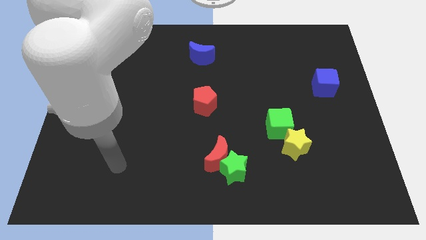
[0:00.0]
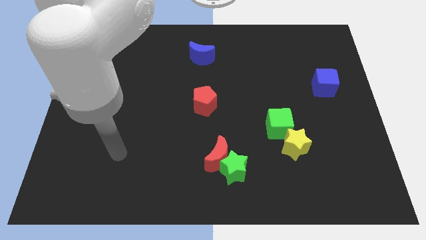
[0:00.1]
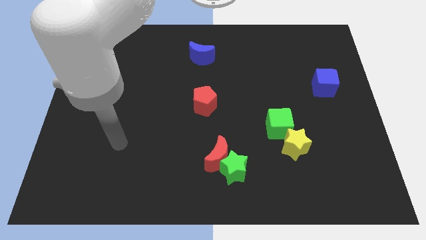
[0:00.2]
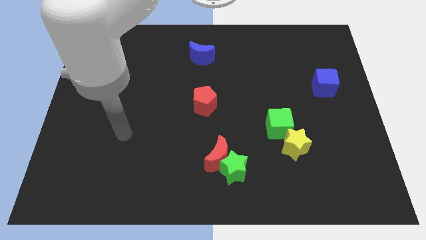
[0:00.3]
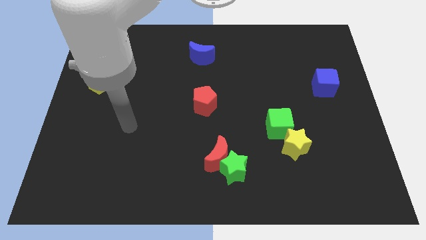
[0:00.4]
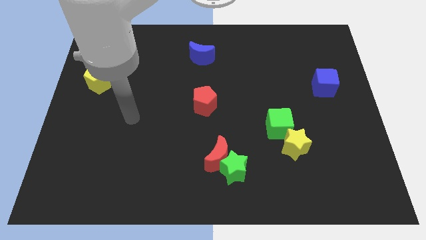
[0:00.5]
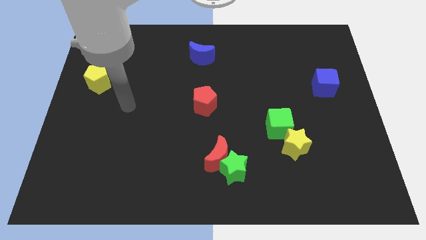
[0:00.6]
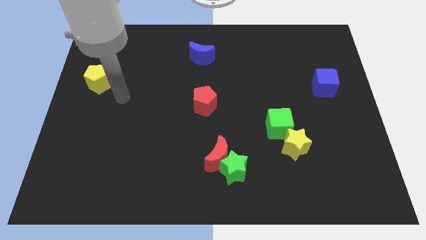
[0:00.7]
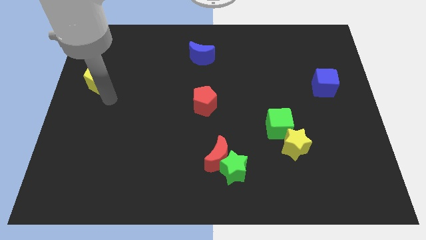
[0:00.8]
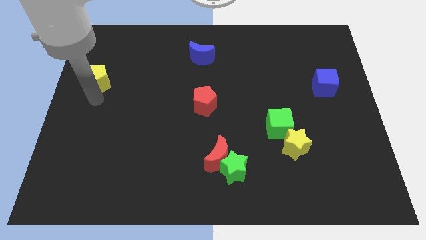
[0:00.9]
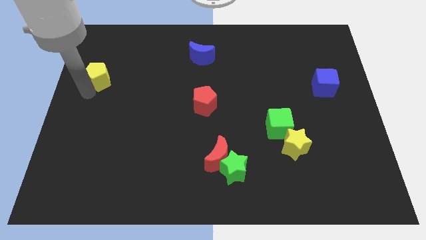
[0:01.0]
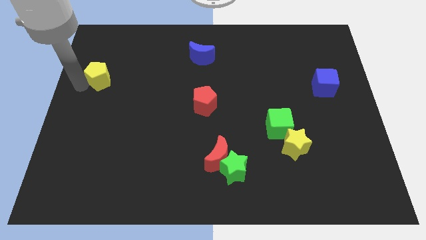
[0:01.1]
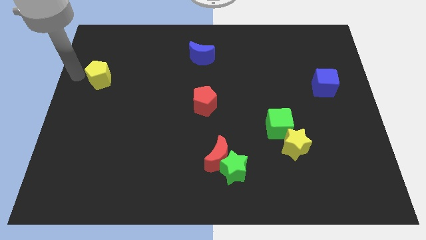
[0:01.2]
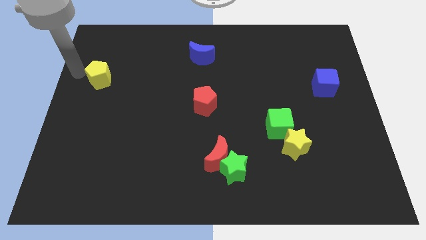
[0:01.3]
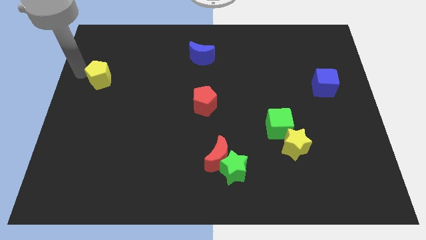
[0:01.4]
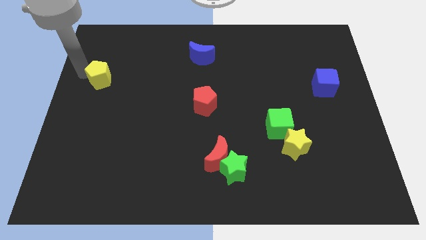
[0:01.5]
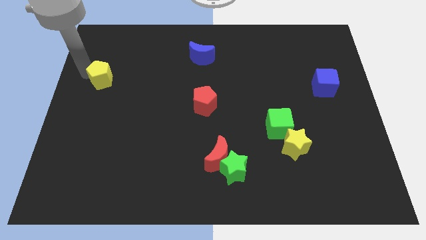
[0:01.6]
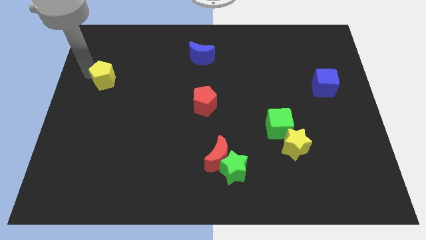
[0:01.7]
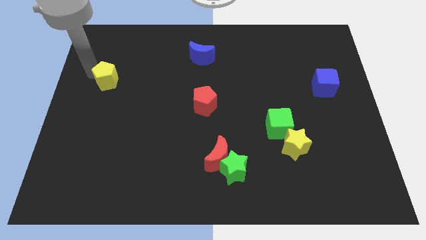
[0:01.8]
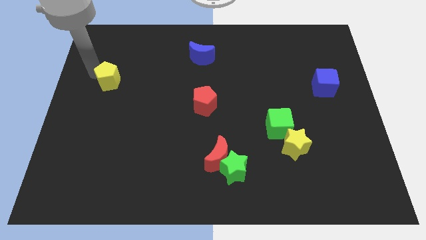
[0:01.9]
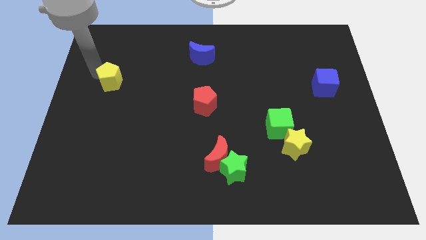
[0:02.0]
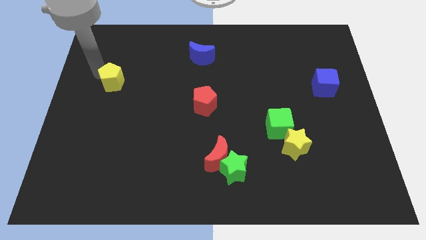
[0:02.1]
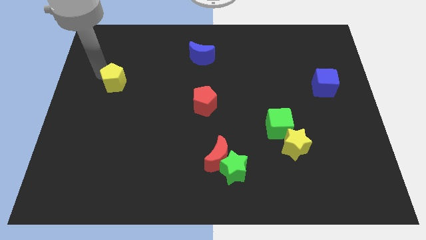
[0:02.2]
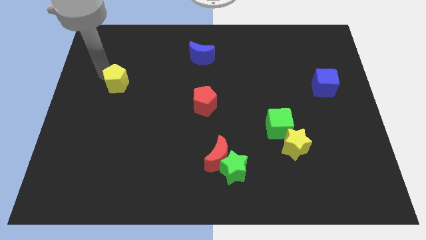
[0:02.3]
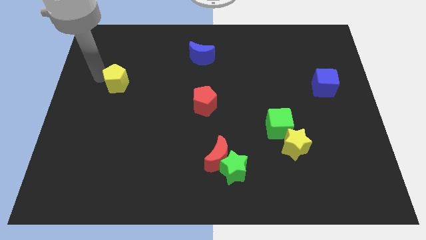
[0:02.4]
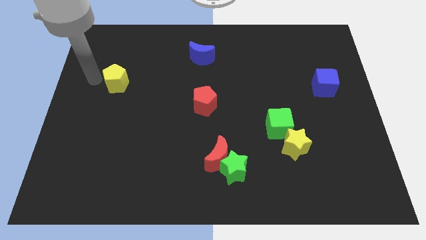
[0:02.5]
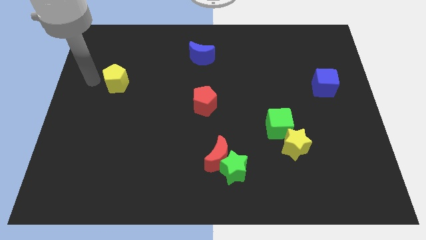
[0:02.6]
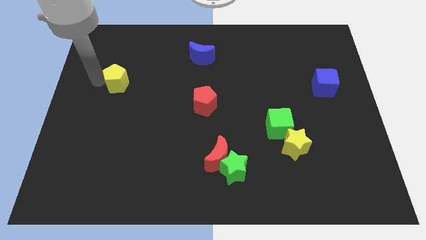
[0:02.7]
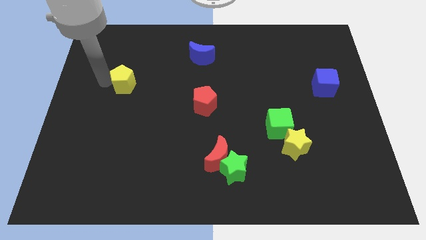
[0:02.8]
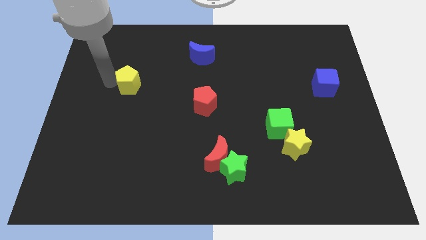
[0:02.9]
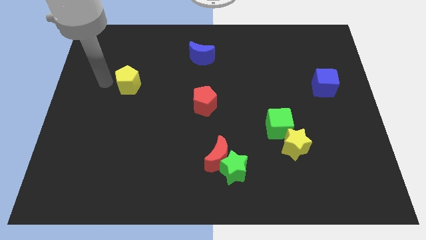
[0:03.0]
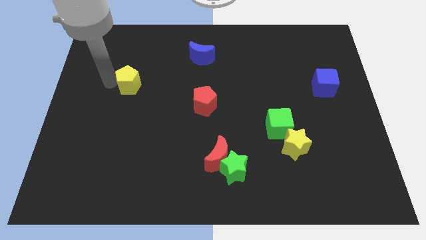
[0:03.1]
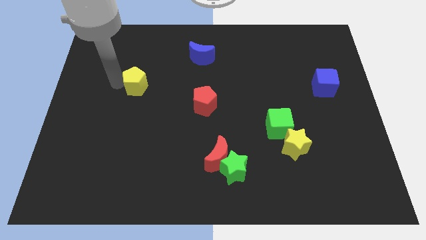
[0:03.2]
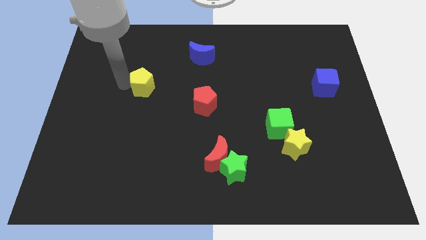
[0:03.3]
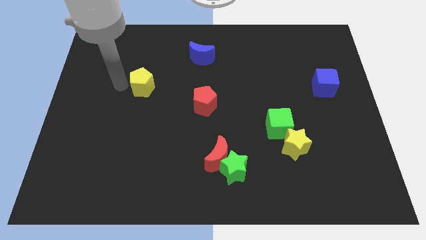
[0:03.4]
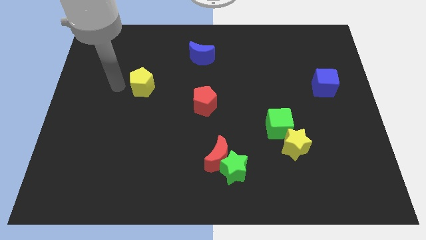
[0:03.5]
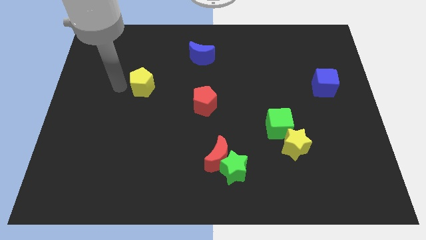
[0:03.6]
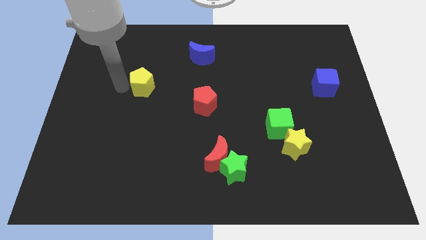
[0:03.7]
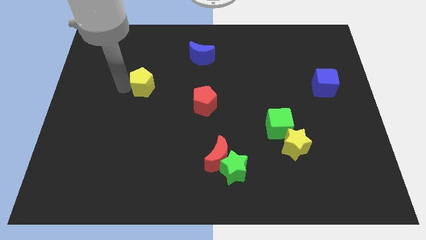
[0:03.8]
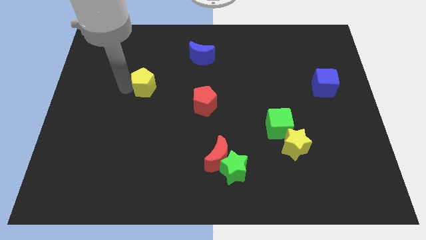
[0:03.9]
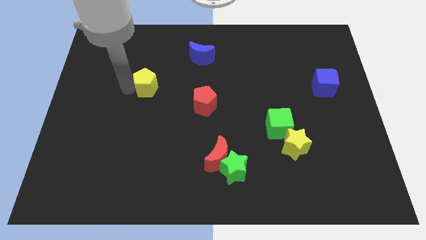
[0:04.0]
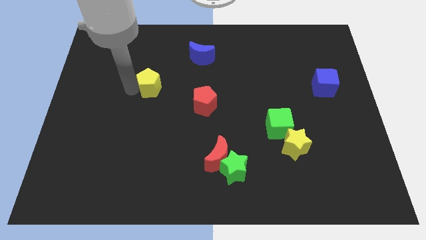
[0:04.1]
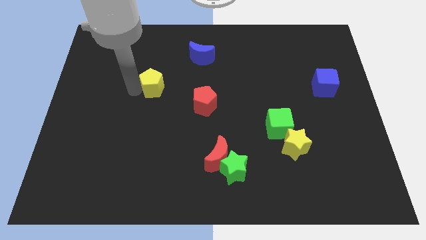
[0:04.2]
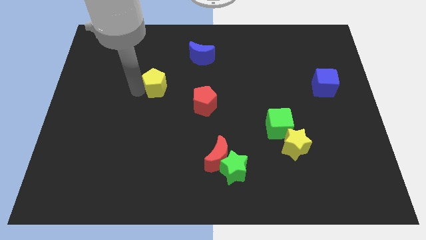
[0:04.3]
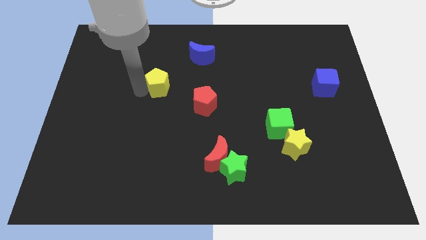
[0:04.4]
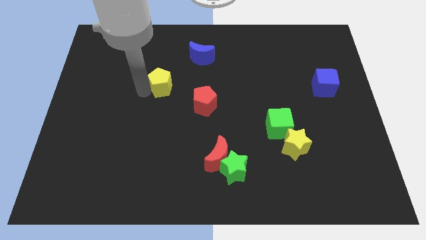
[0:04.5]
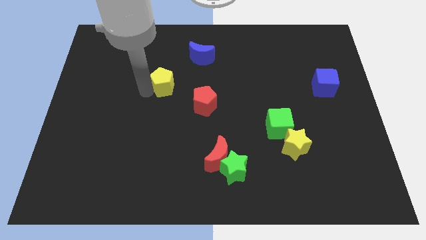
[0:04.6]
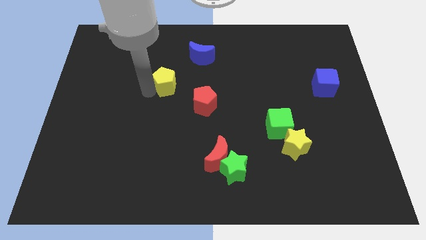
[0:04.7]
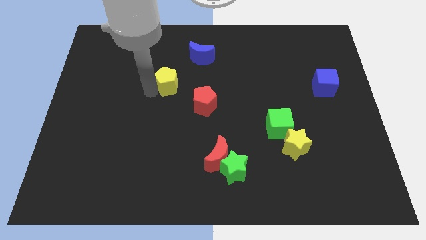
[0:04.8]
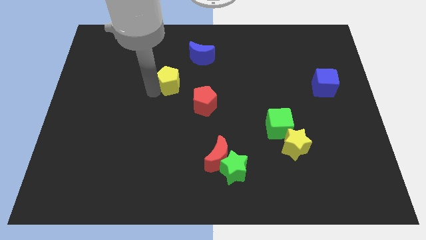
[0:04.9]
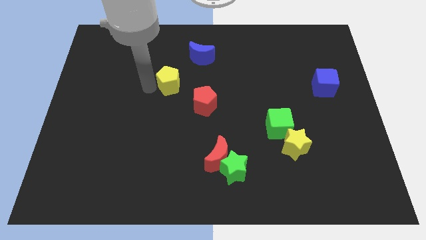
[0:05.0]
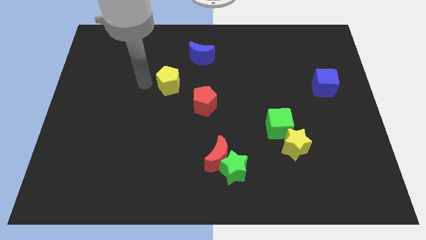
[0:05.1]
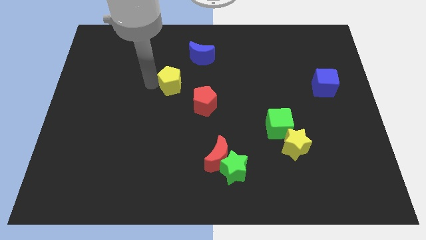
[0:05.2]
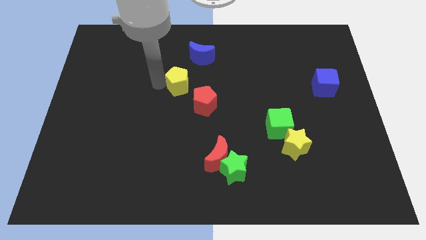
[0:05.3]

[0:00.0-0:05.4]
move the yellow pentagon right

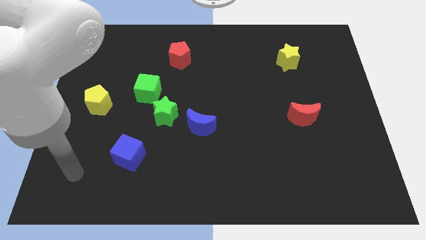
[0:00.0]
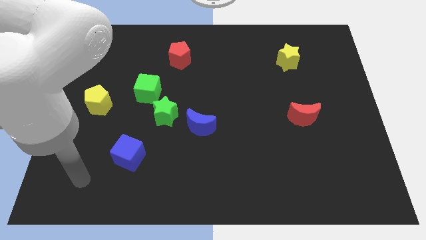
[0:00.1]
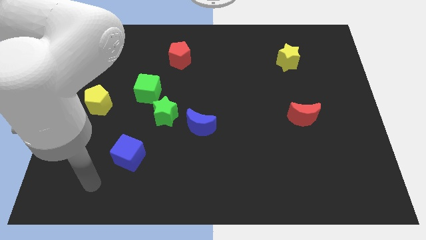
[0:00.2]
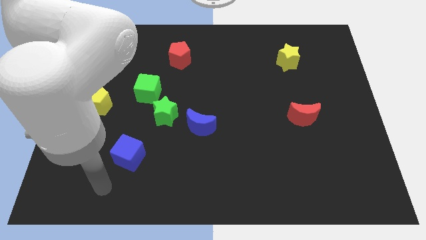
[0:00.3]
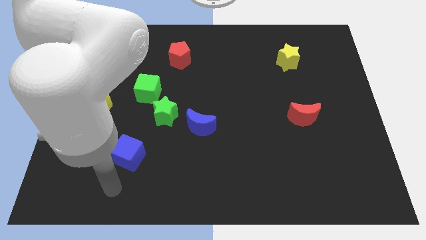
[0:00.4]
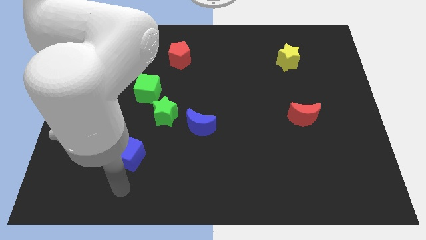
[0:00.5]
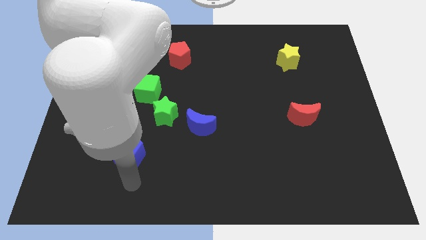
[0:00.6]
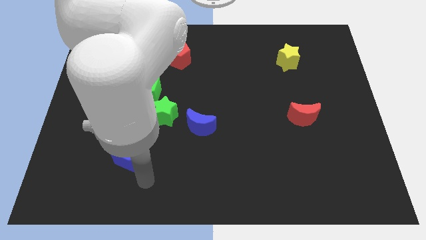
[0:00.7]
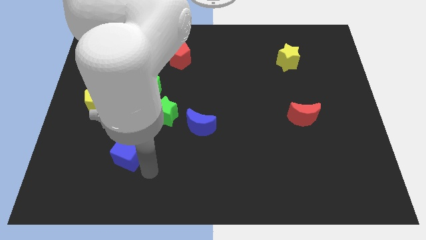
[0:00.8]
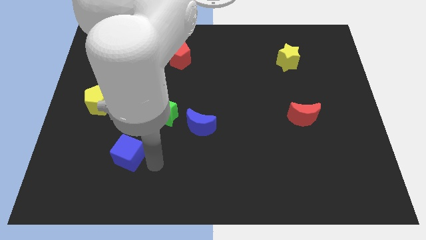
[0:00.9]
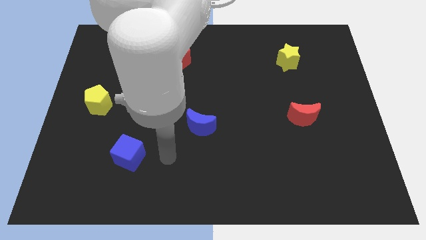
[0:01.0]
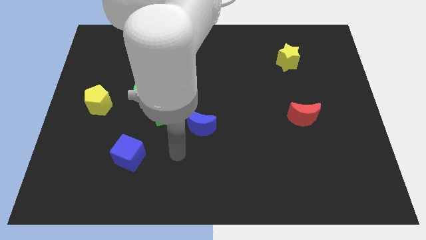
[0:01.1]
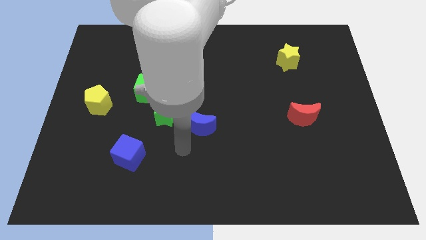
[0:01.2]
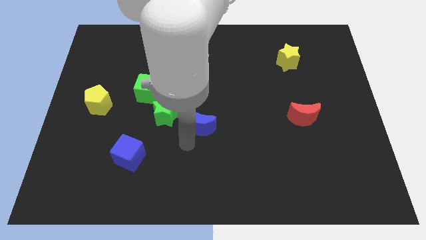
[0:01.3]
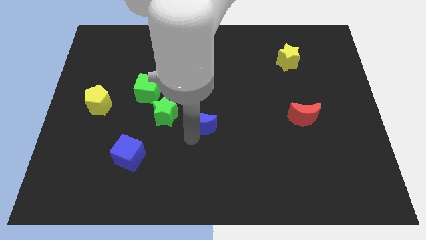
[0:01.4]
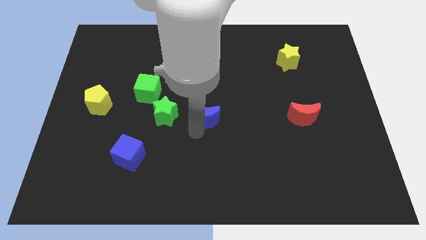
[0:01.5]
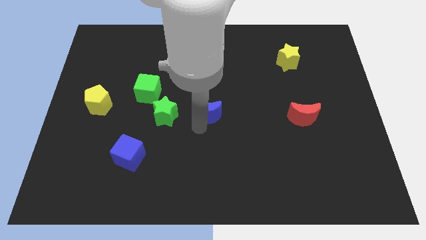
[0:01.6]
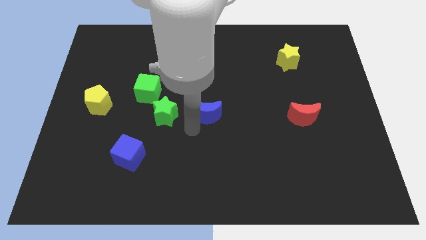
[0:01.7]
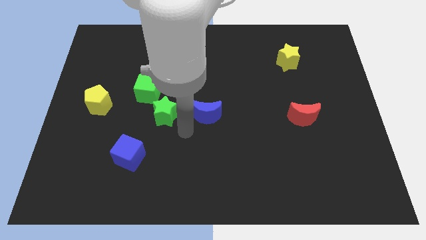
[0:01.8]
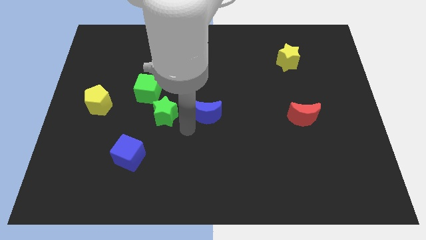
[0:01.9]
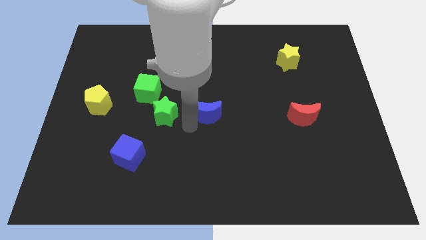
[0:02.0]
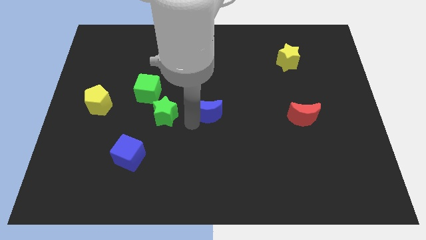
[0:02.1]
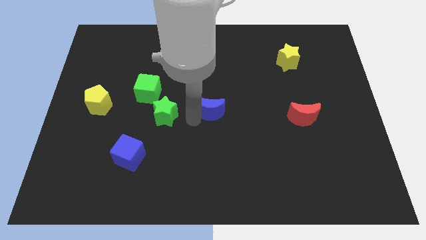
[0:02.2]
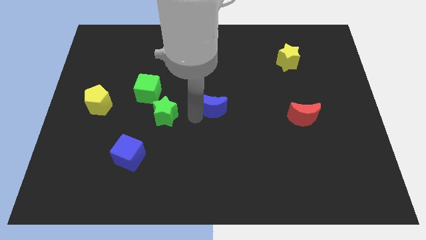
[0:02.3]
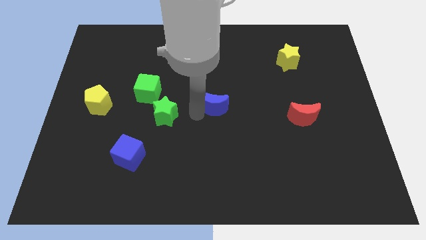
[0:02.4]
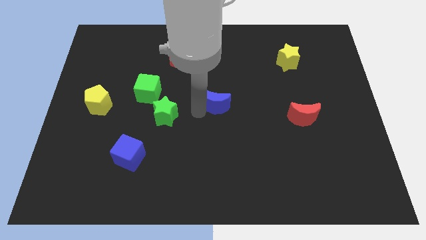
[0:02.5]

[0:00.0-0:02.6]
move the blue moon up and to the right a little bit

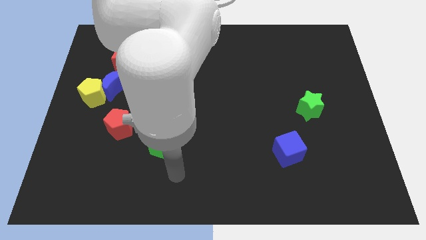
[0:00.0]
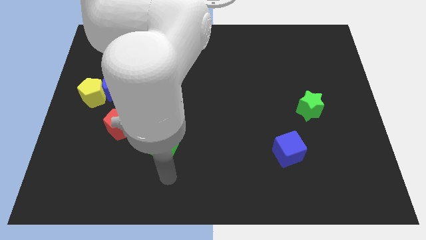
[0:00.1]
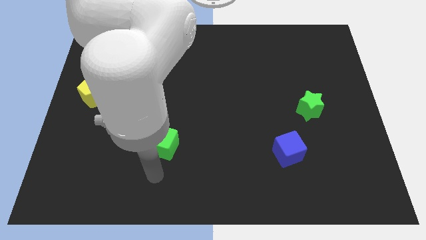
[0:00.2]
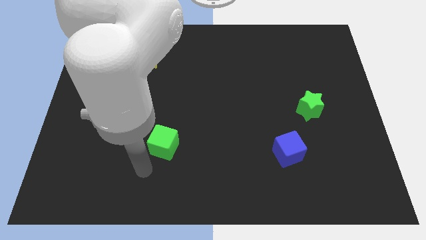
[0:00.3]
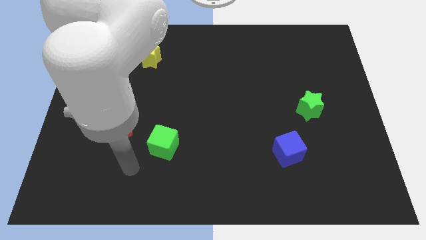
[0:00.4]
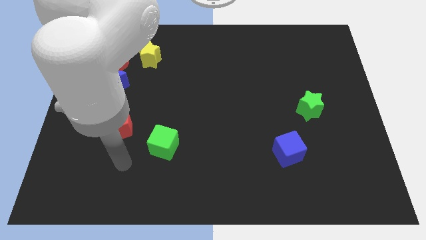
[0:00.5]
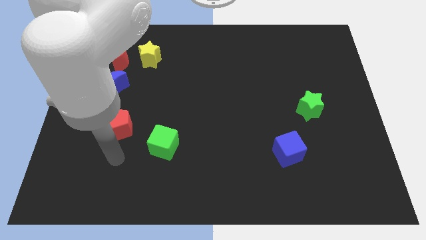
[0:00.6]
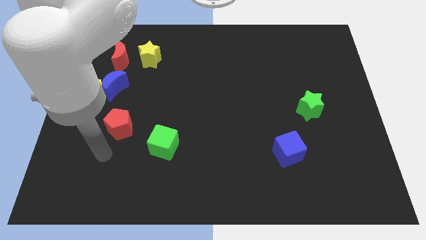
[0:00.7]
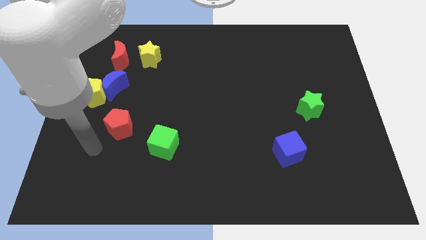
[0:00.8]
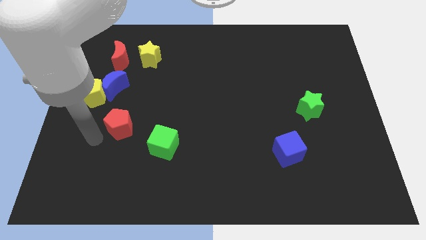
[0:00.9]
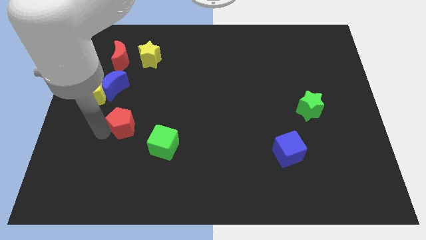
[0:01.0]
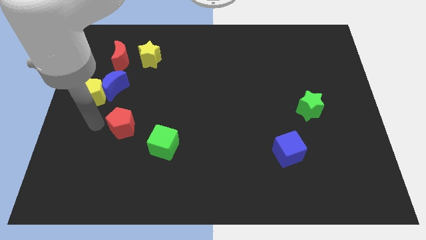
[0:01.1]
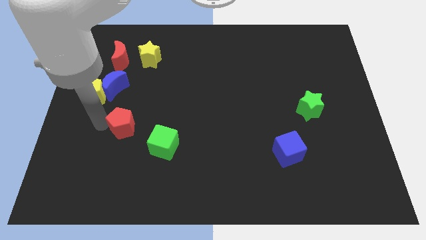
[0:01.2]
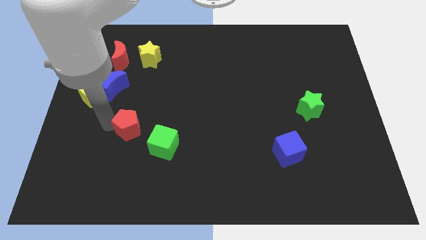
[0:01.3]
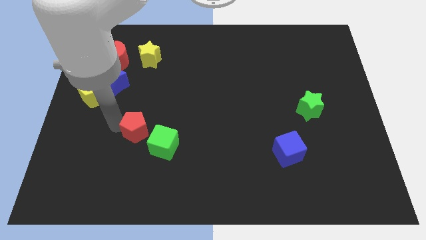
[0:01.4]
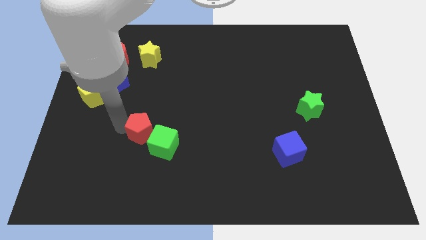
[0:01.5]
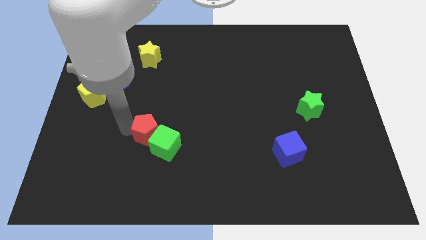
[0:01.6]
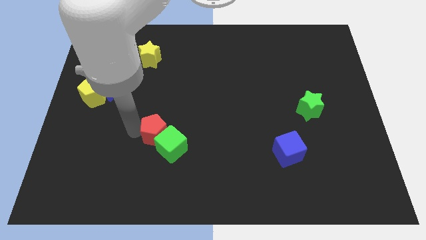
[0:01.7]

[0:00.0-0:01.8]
slide the red pentagon to the right slightly
